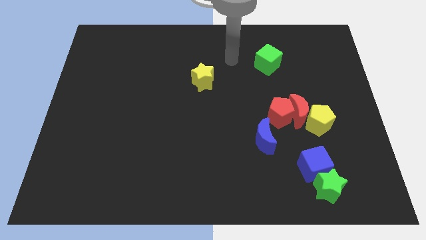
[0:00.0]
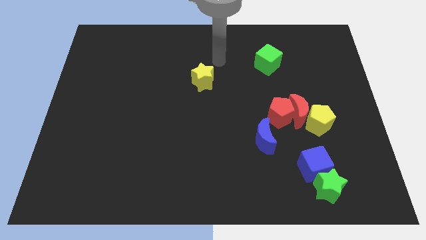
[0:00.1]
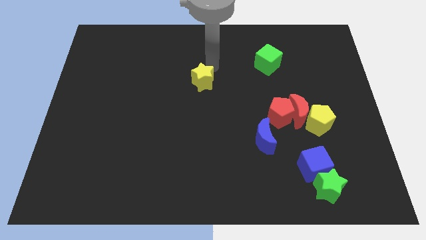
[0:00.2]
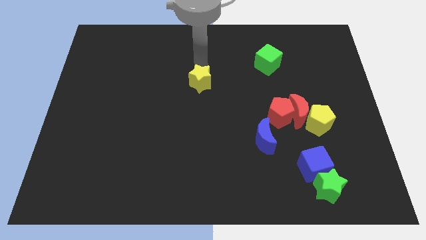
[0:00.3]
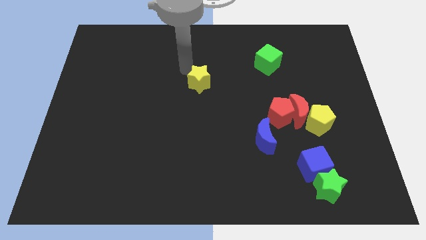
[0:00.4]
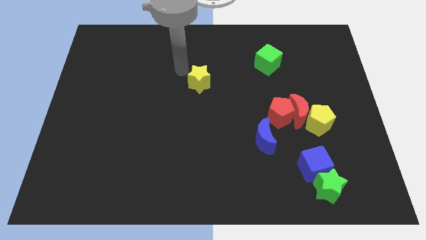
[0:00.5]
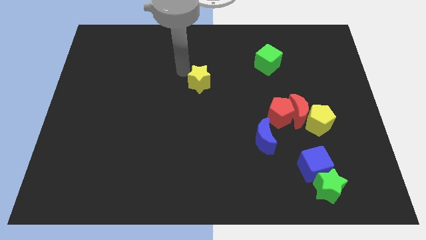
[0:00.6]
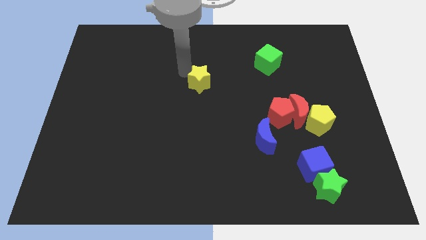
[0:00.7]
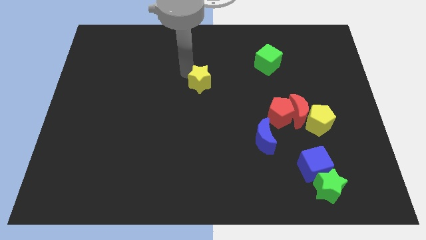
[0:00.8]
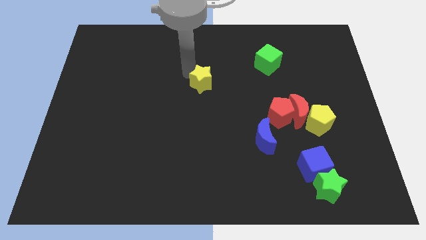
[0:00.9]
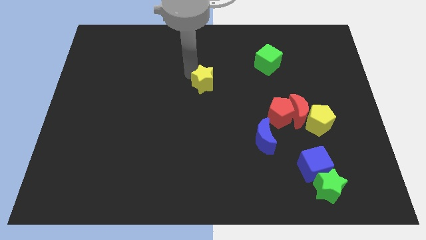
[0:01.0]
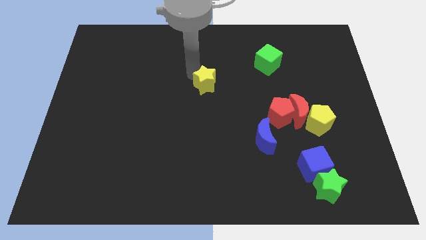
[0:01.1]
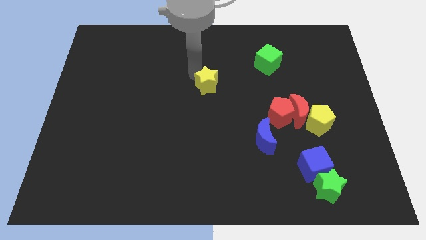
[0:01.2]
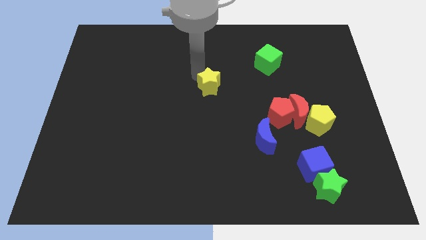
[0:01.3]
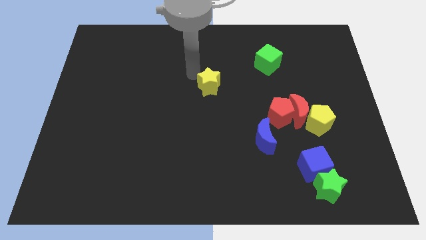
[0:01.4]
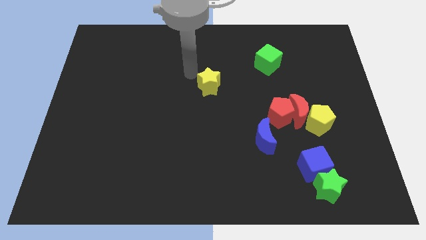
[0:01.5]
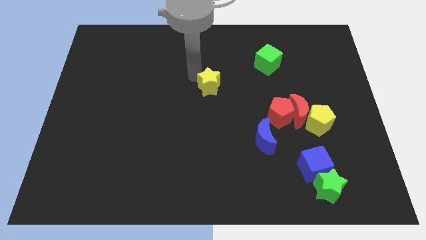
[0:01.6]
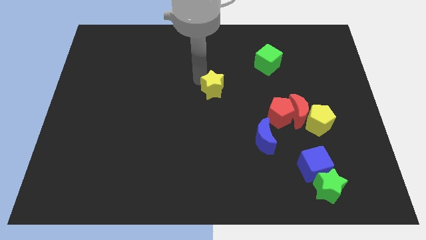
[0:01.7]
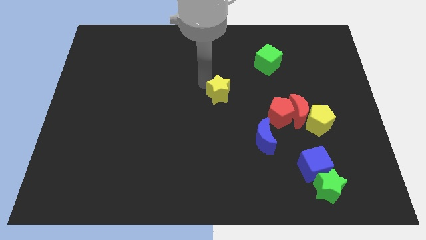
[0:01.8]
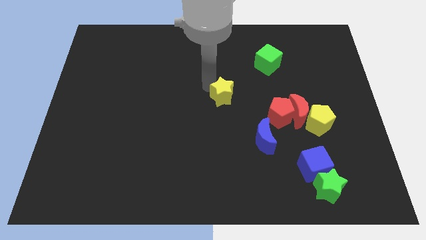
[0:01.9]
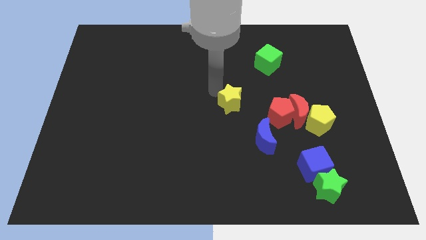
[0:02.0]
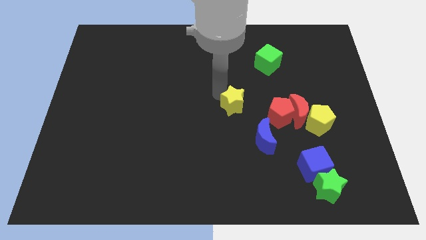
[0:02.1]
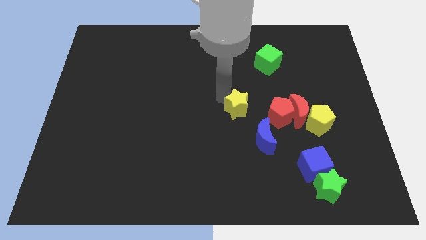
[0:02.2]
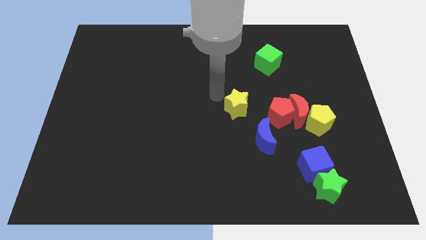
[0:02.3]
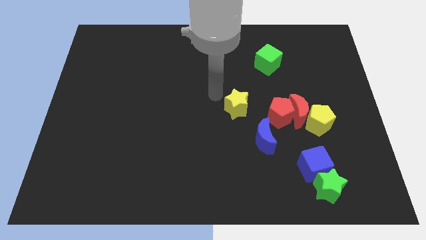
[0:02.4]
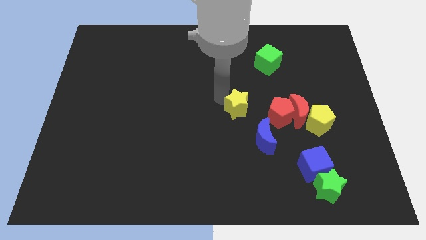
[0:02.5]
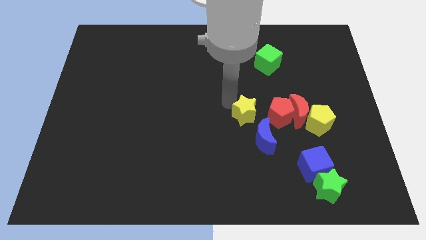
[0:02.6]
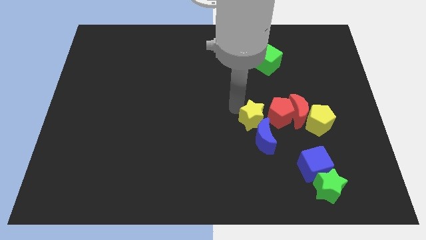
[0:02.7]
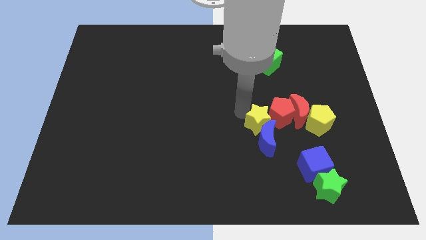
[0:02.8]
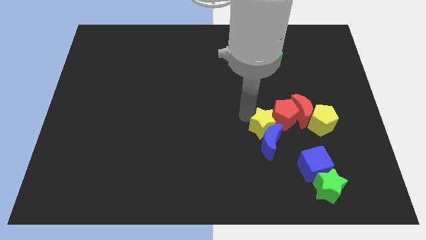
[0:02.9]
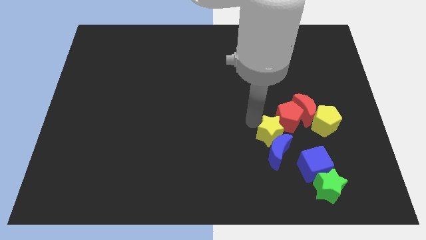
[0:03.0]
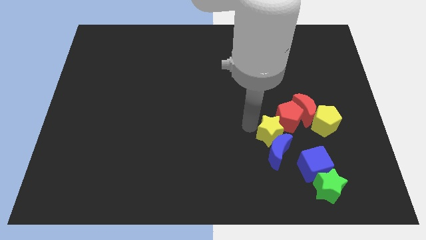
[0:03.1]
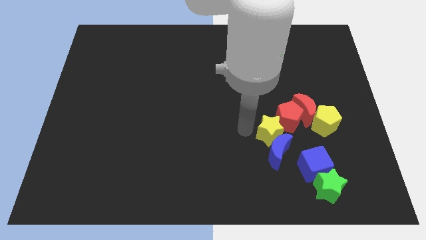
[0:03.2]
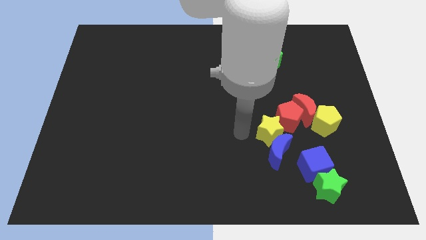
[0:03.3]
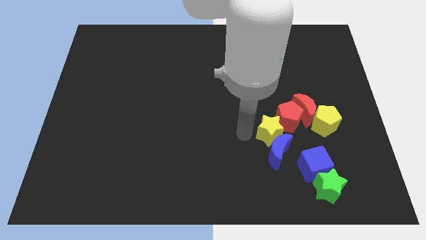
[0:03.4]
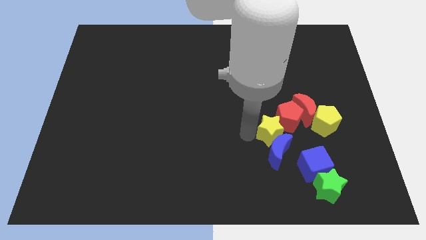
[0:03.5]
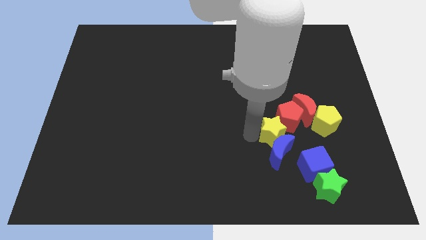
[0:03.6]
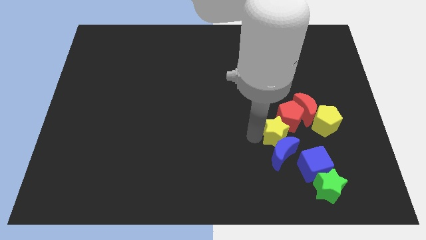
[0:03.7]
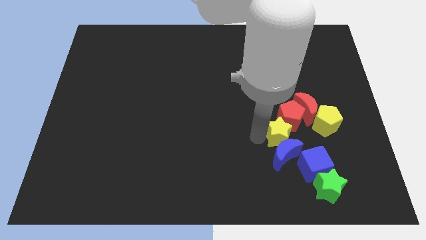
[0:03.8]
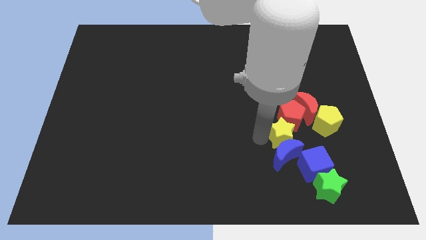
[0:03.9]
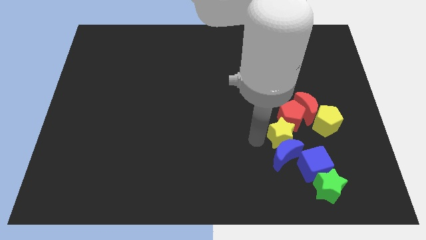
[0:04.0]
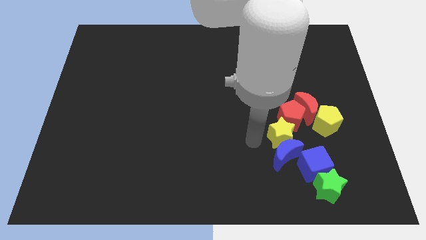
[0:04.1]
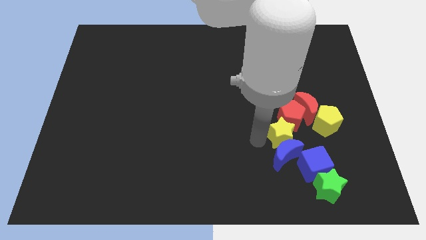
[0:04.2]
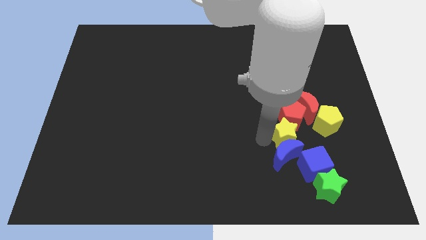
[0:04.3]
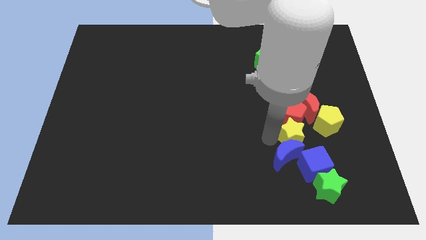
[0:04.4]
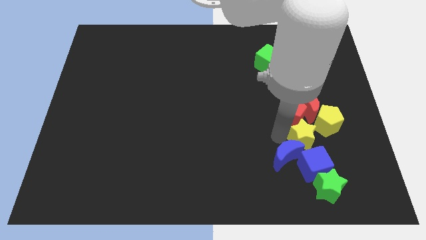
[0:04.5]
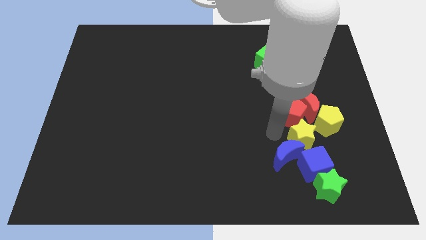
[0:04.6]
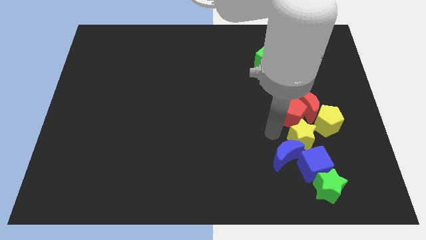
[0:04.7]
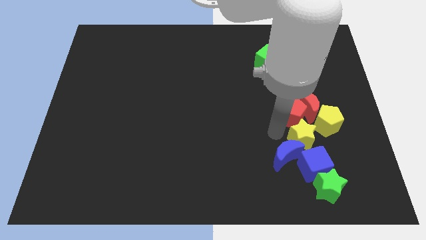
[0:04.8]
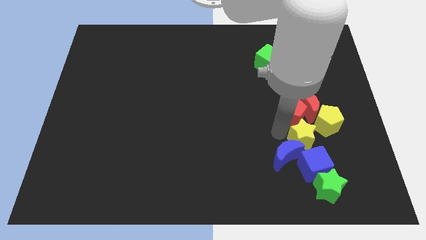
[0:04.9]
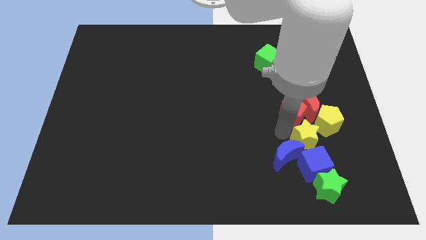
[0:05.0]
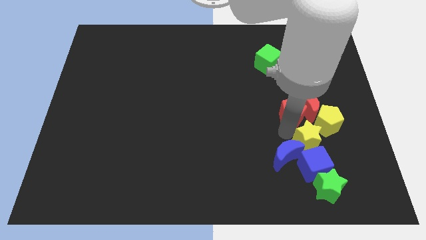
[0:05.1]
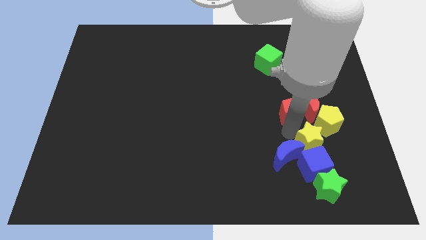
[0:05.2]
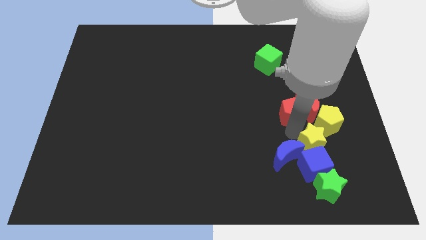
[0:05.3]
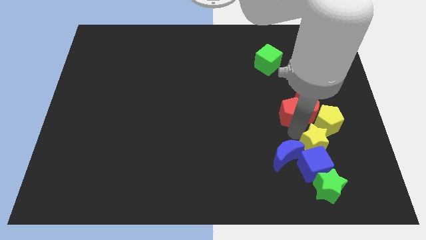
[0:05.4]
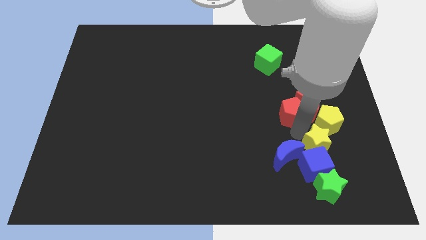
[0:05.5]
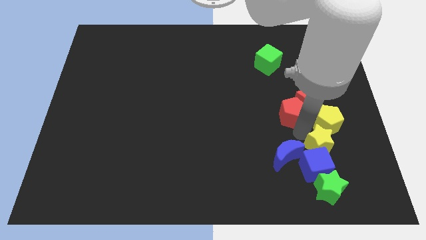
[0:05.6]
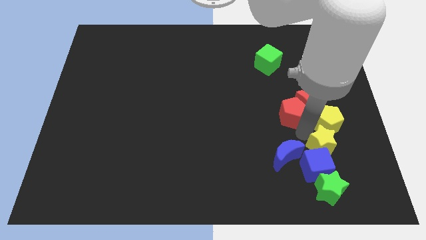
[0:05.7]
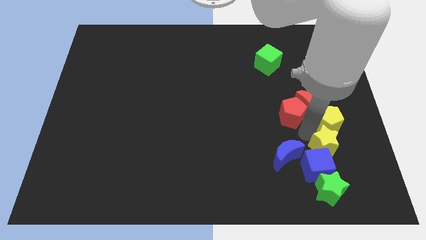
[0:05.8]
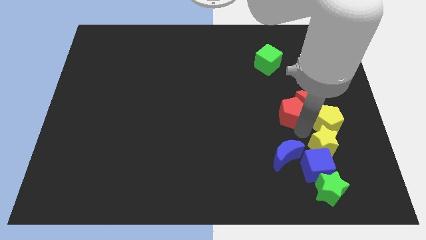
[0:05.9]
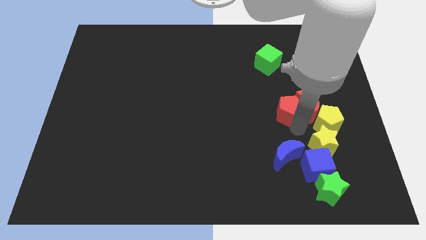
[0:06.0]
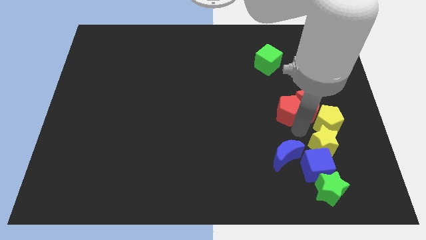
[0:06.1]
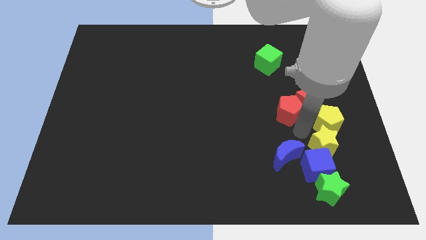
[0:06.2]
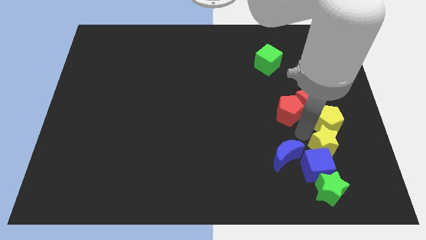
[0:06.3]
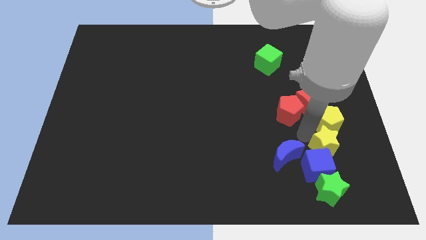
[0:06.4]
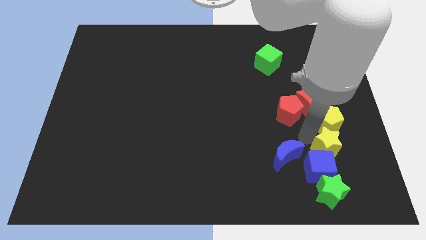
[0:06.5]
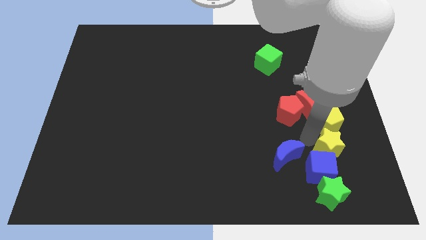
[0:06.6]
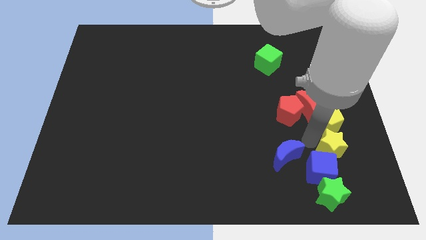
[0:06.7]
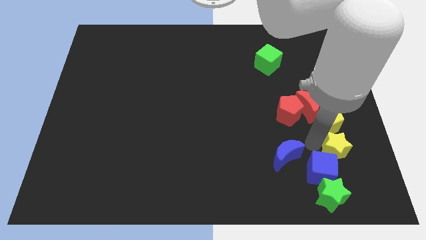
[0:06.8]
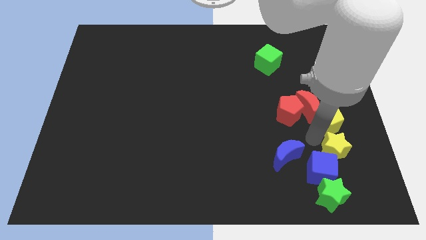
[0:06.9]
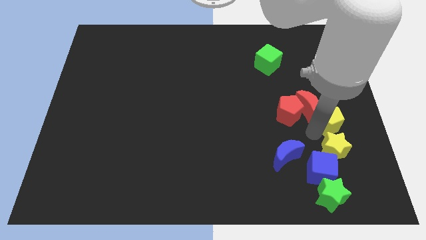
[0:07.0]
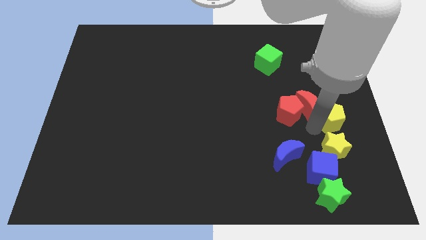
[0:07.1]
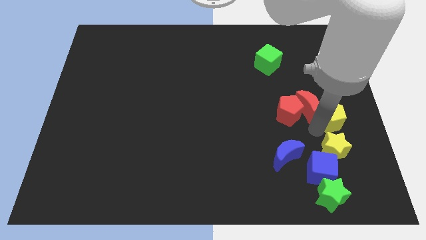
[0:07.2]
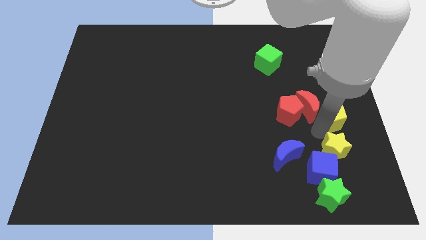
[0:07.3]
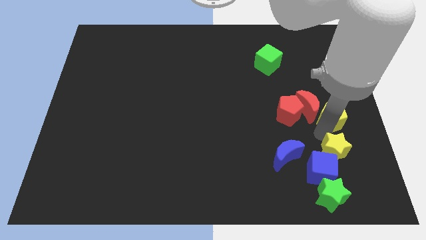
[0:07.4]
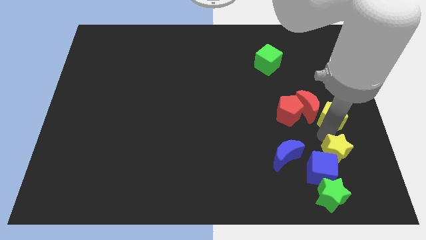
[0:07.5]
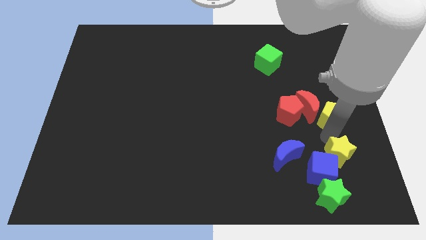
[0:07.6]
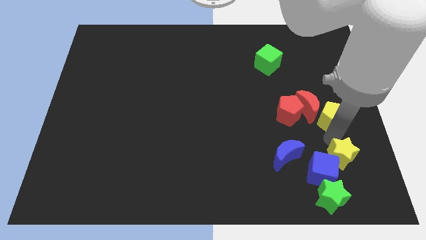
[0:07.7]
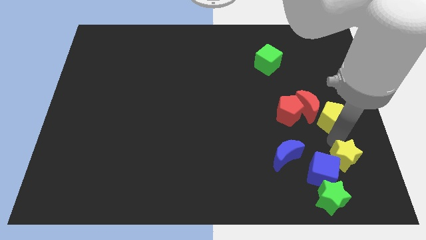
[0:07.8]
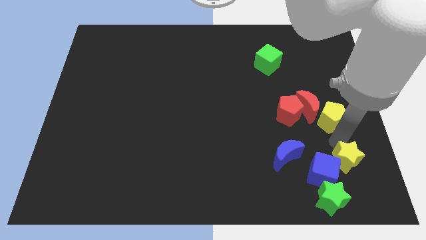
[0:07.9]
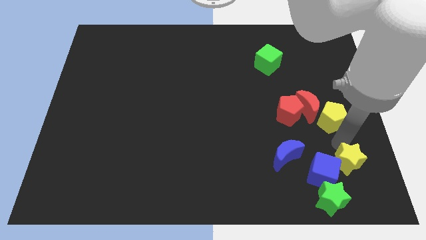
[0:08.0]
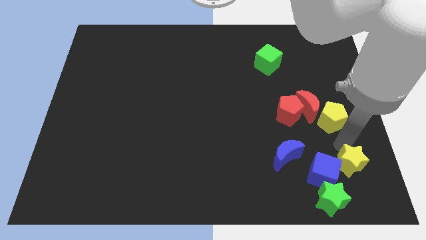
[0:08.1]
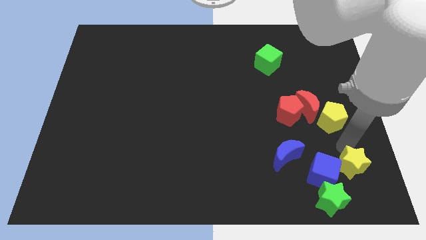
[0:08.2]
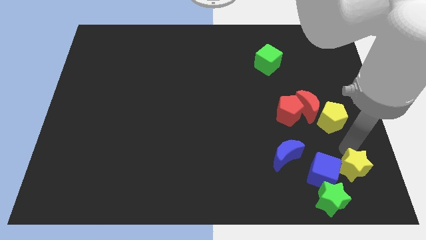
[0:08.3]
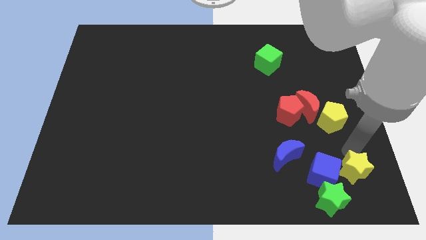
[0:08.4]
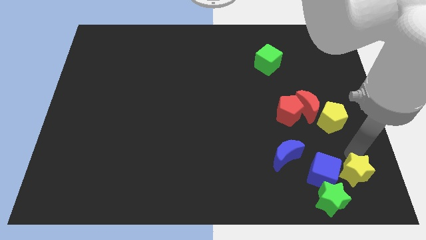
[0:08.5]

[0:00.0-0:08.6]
slide the yellow star to the bottom right
